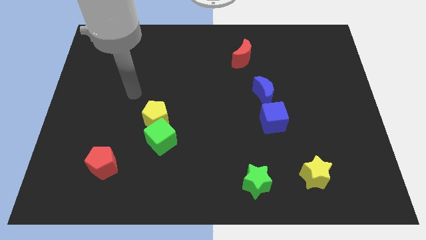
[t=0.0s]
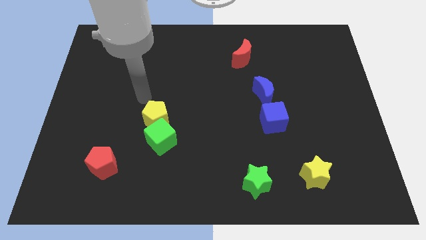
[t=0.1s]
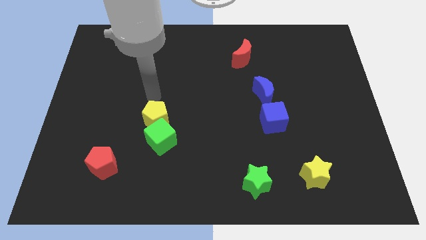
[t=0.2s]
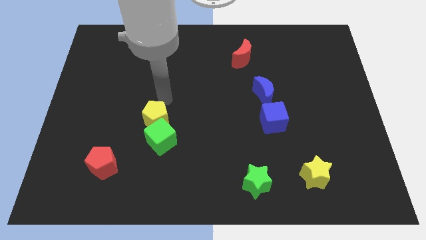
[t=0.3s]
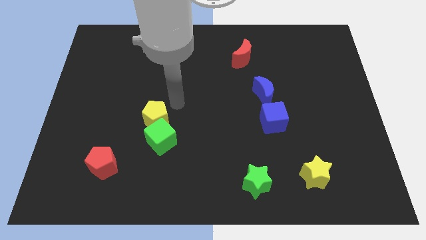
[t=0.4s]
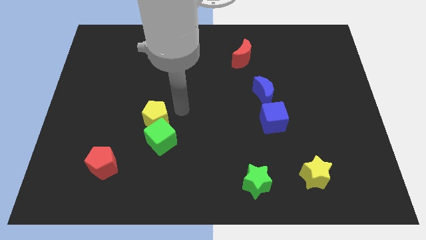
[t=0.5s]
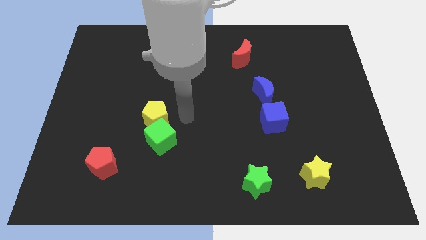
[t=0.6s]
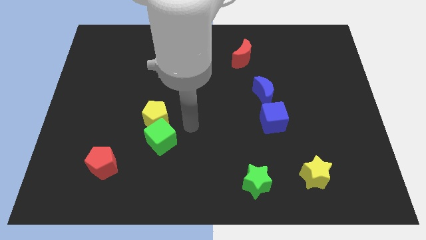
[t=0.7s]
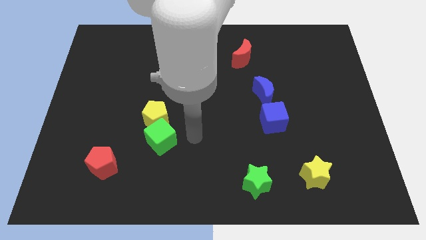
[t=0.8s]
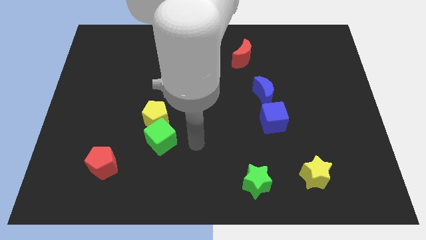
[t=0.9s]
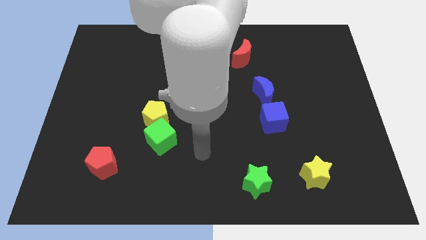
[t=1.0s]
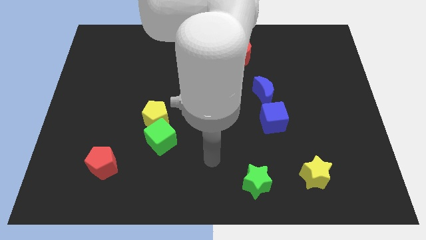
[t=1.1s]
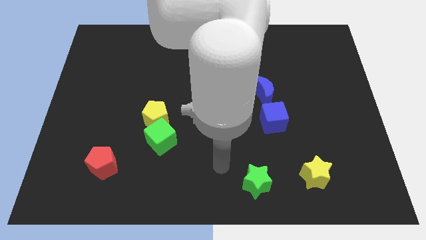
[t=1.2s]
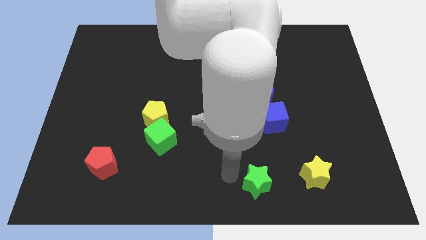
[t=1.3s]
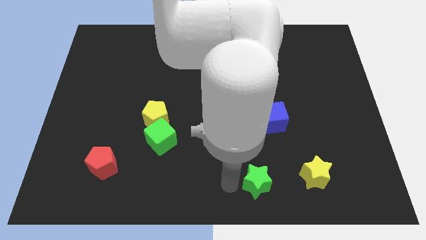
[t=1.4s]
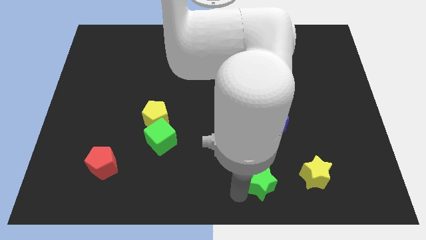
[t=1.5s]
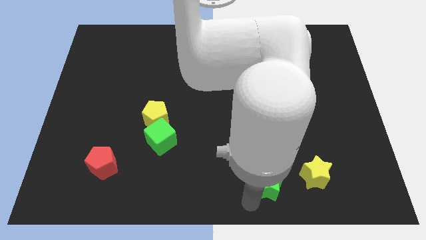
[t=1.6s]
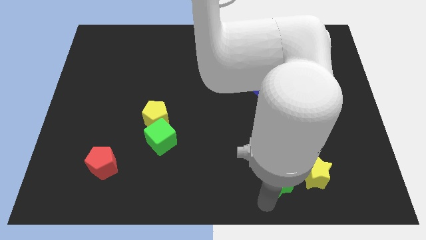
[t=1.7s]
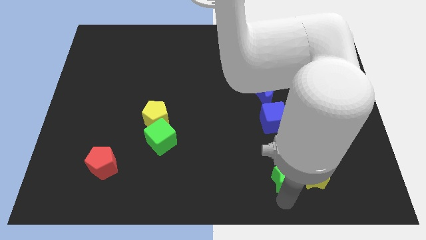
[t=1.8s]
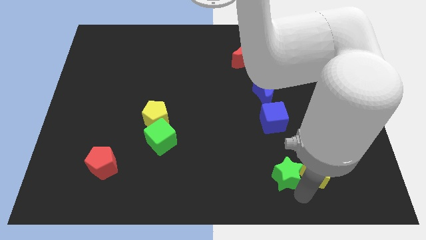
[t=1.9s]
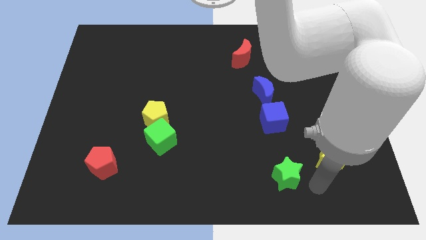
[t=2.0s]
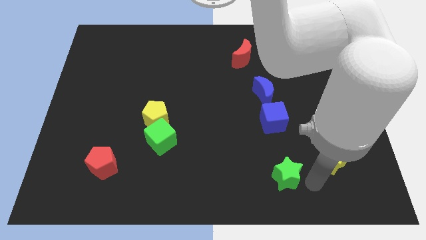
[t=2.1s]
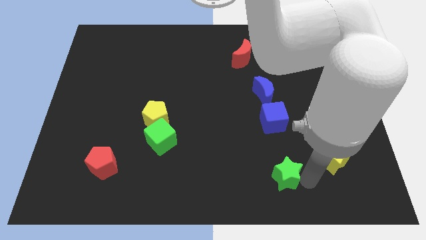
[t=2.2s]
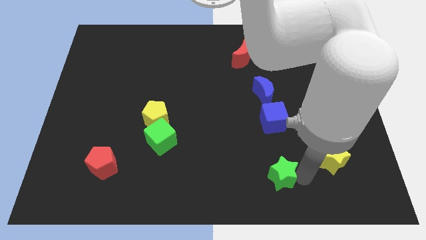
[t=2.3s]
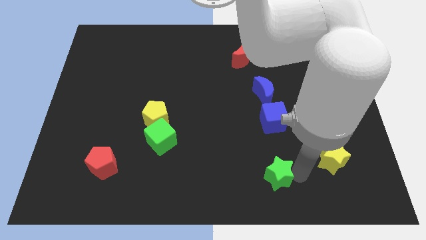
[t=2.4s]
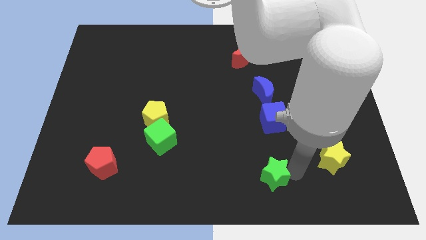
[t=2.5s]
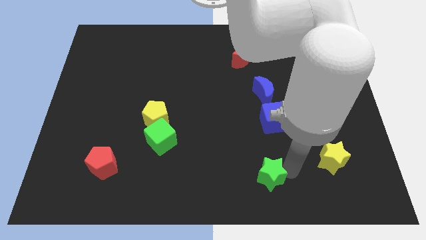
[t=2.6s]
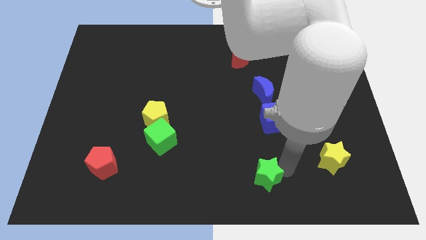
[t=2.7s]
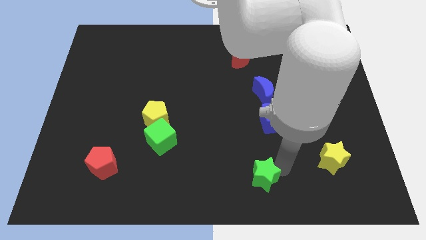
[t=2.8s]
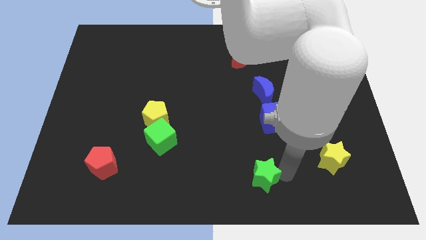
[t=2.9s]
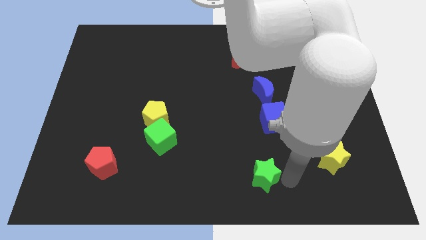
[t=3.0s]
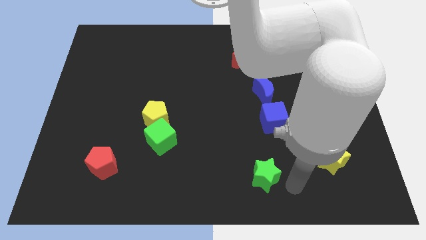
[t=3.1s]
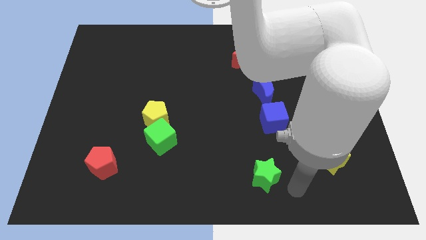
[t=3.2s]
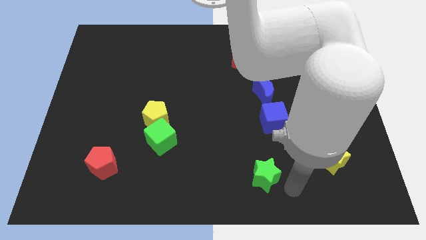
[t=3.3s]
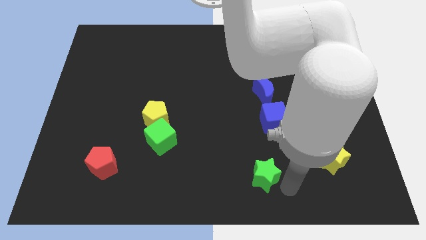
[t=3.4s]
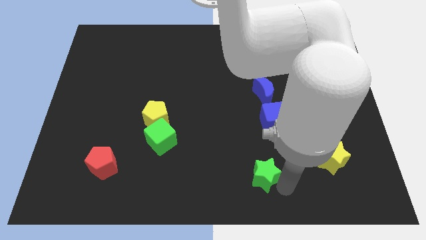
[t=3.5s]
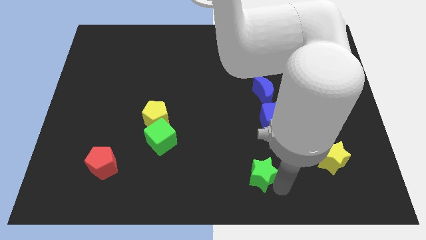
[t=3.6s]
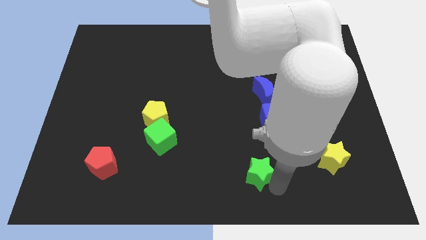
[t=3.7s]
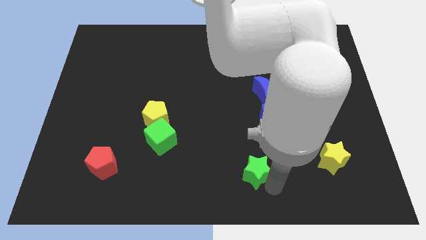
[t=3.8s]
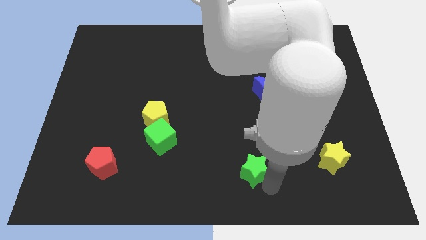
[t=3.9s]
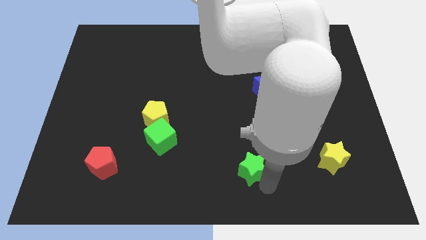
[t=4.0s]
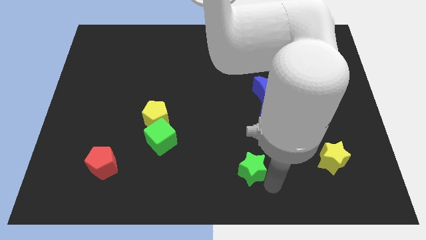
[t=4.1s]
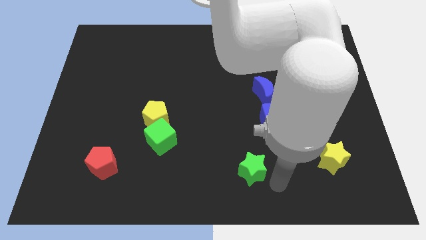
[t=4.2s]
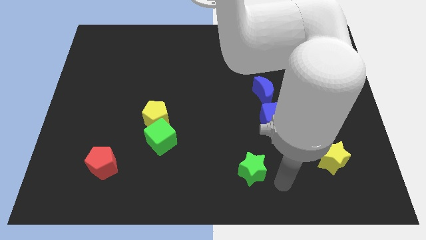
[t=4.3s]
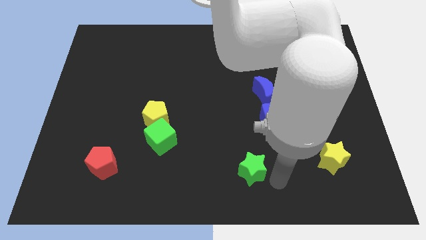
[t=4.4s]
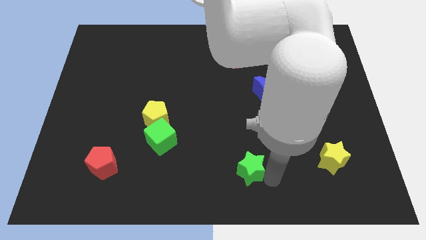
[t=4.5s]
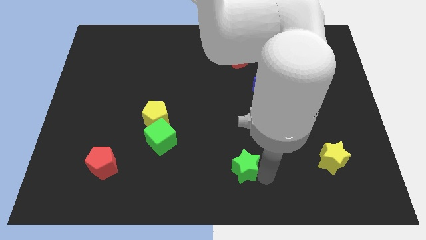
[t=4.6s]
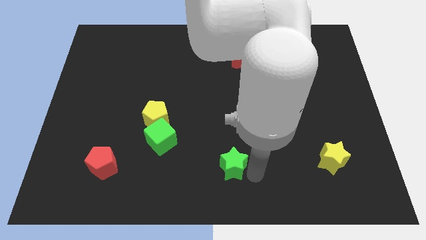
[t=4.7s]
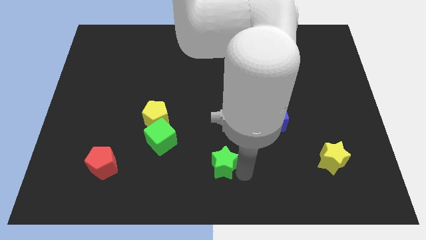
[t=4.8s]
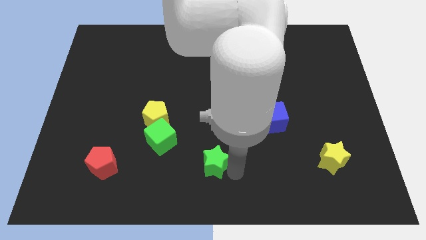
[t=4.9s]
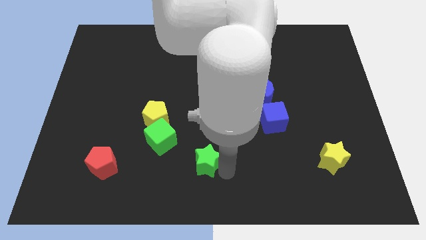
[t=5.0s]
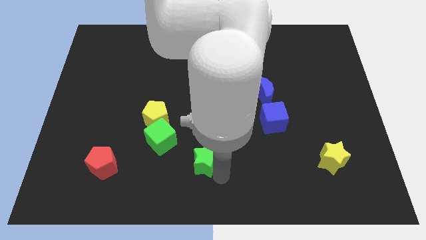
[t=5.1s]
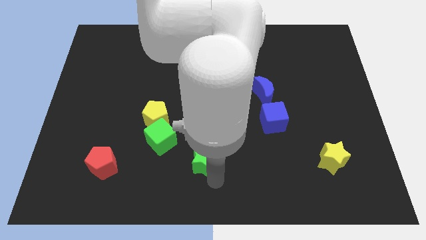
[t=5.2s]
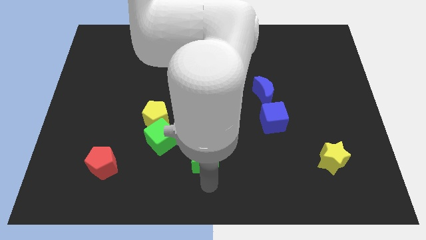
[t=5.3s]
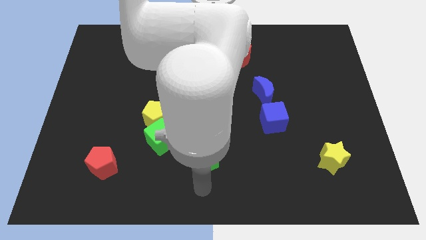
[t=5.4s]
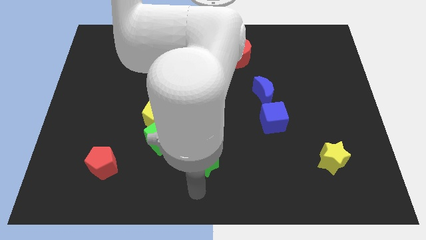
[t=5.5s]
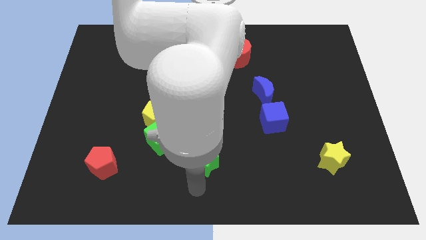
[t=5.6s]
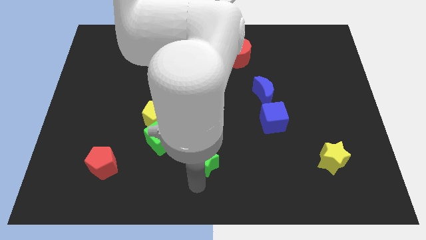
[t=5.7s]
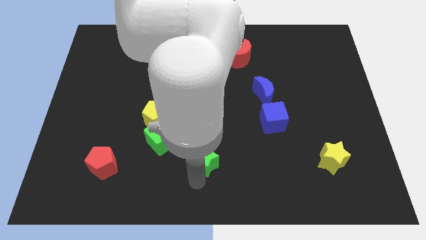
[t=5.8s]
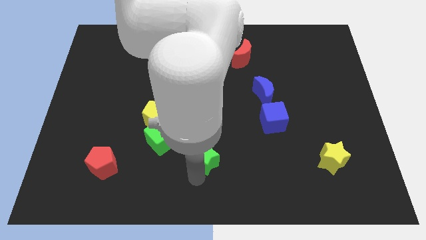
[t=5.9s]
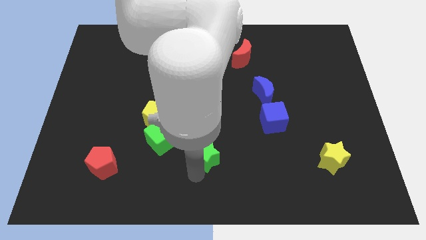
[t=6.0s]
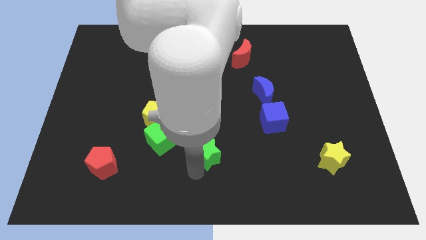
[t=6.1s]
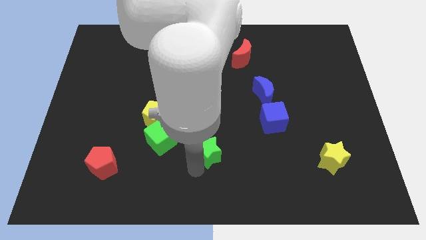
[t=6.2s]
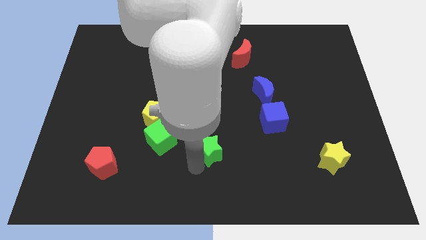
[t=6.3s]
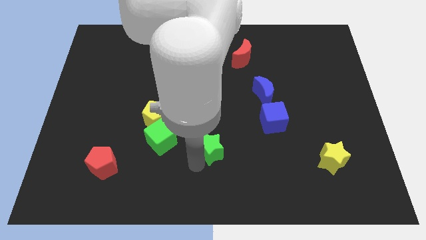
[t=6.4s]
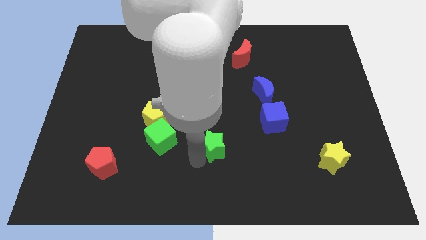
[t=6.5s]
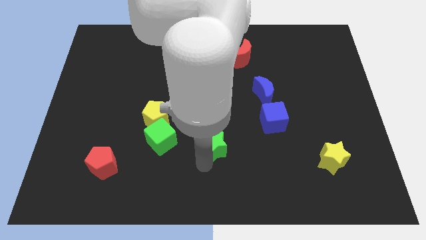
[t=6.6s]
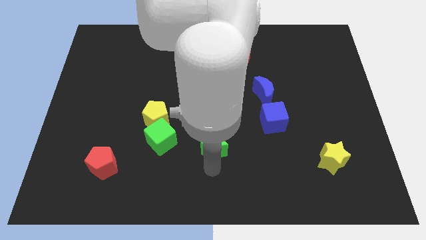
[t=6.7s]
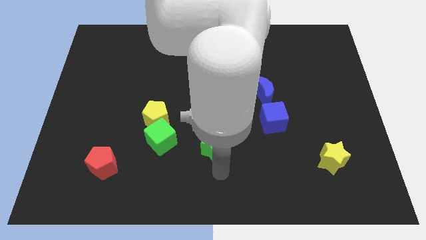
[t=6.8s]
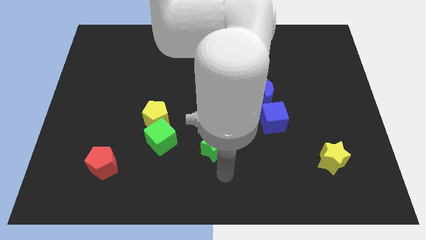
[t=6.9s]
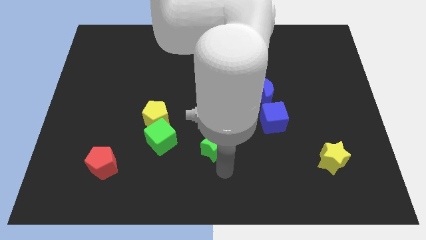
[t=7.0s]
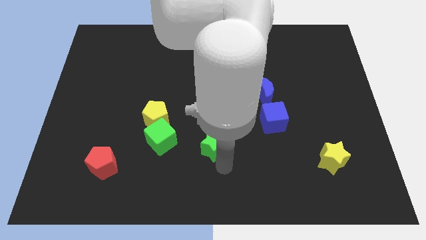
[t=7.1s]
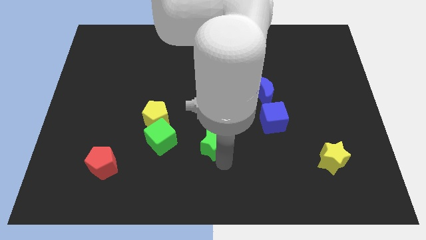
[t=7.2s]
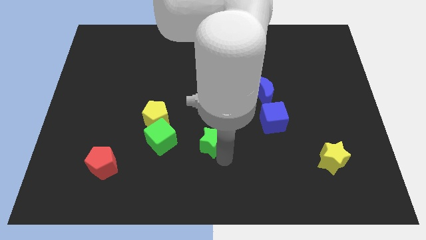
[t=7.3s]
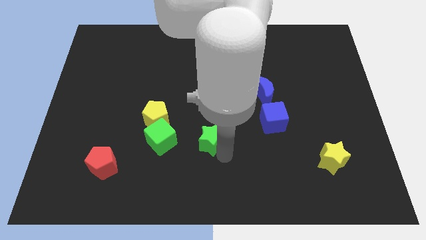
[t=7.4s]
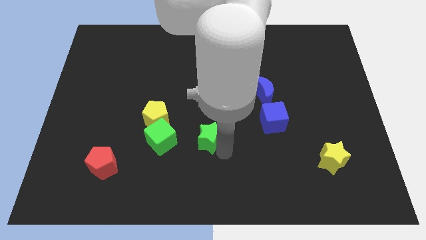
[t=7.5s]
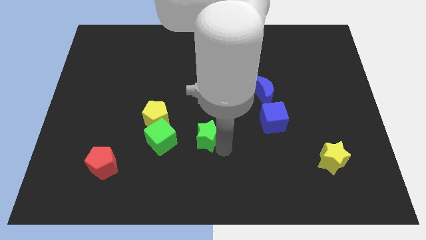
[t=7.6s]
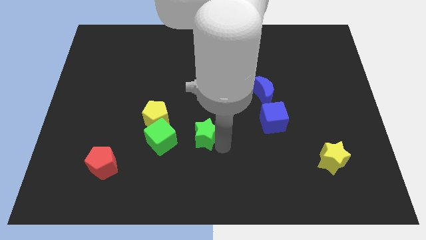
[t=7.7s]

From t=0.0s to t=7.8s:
slide the green star right of the yellow pentagon
